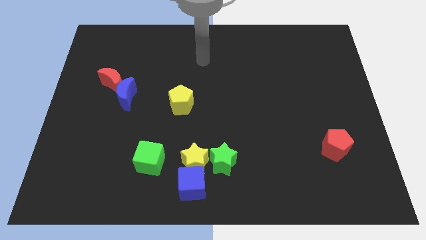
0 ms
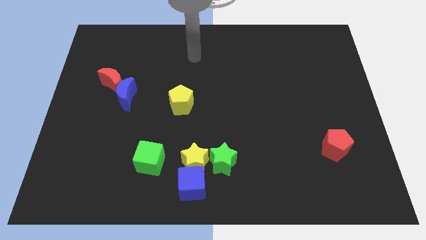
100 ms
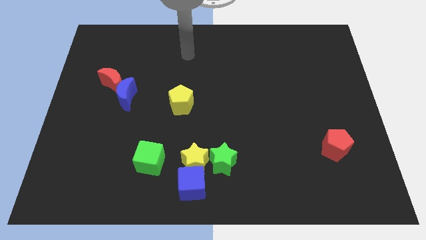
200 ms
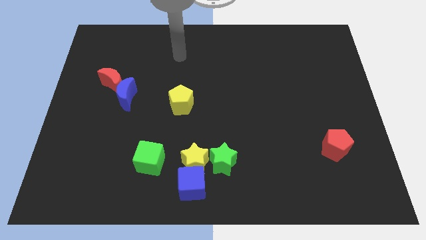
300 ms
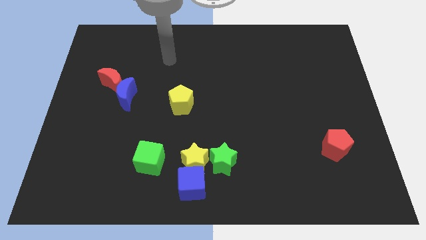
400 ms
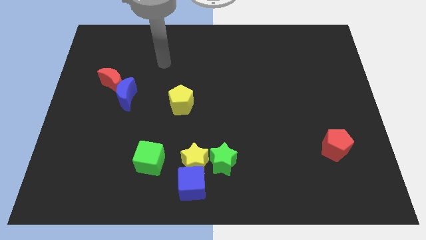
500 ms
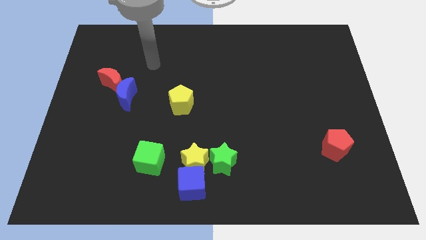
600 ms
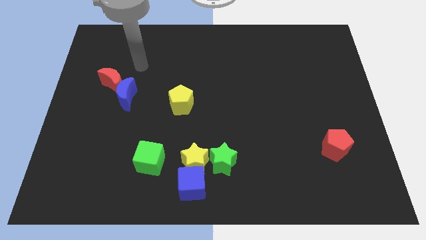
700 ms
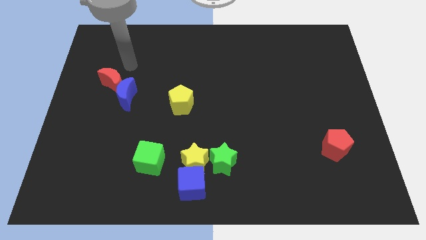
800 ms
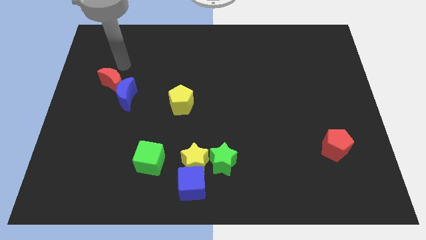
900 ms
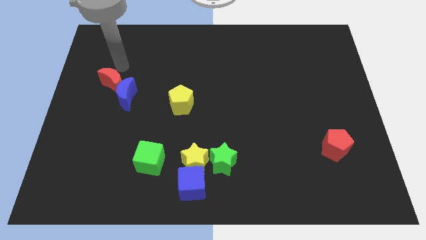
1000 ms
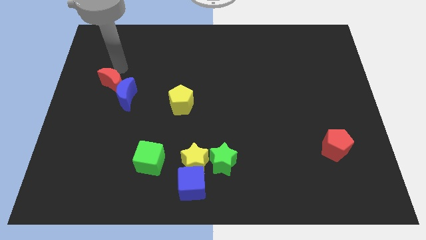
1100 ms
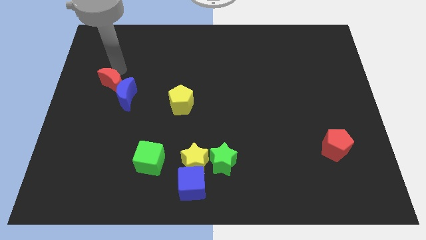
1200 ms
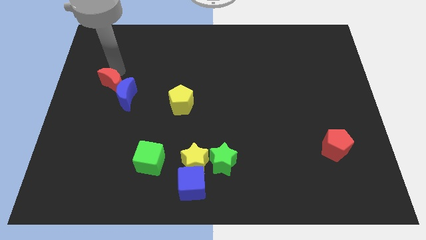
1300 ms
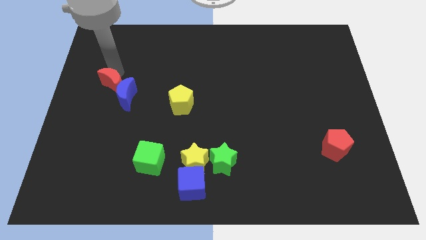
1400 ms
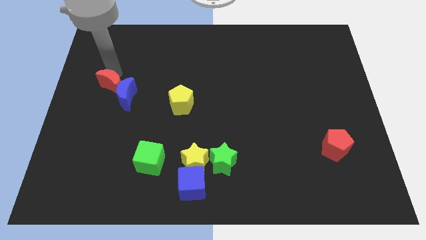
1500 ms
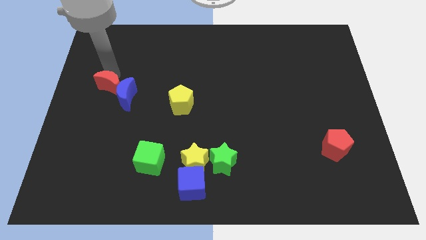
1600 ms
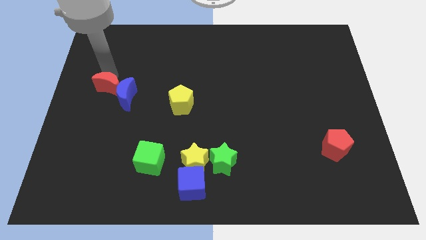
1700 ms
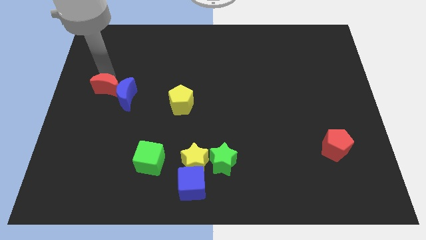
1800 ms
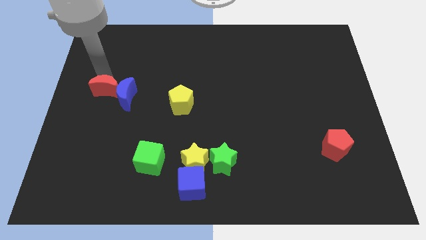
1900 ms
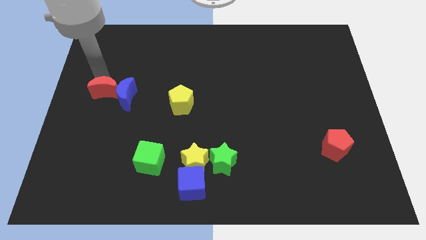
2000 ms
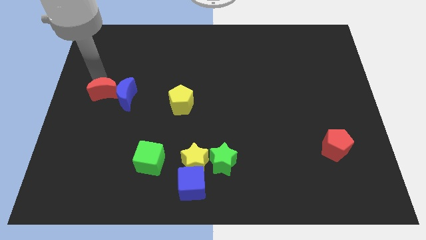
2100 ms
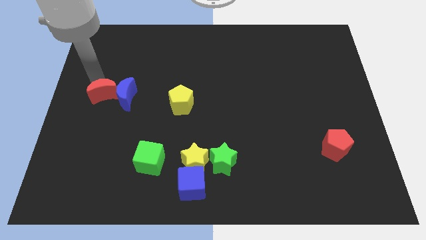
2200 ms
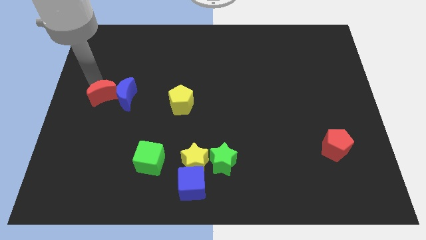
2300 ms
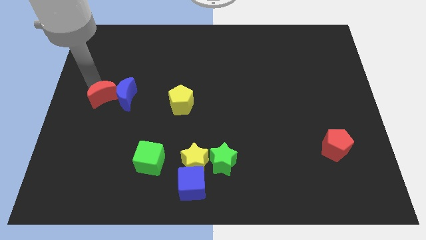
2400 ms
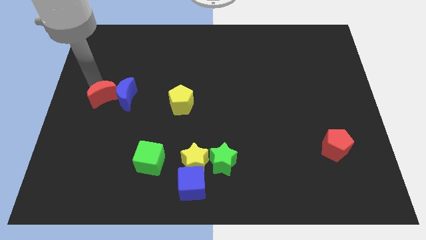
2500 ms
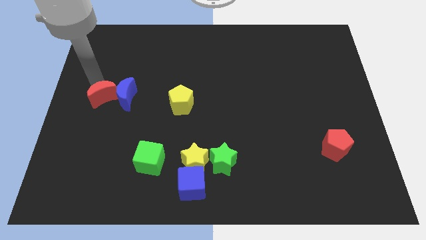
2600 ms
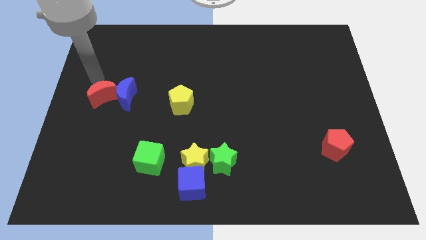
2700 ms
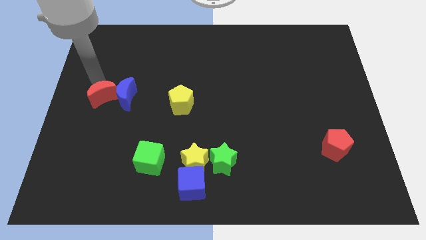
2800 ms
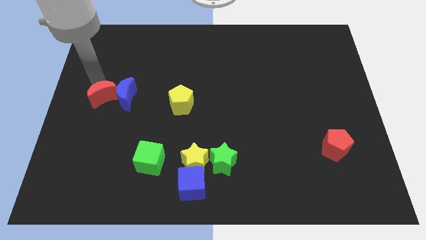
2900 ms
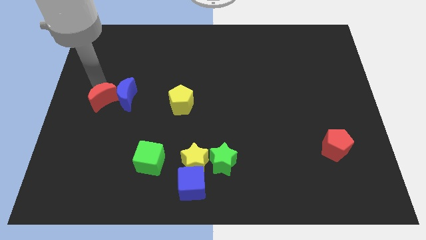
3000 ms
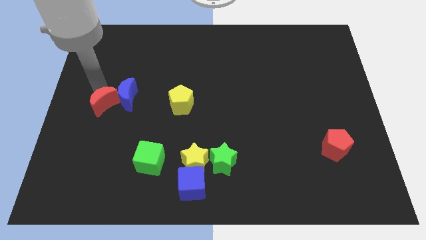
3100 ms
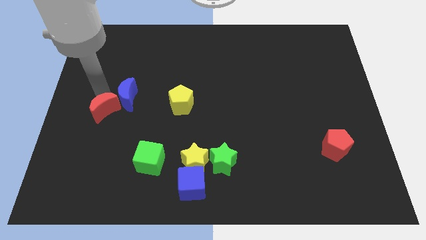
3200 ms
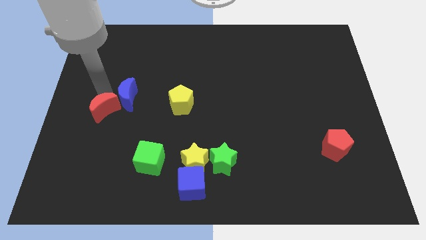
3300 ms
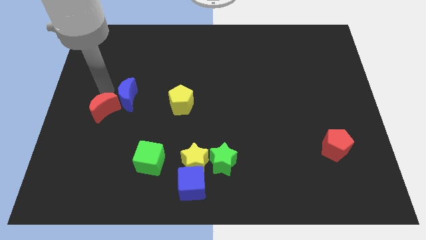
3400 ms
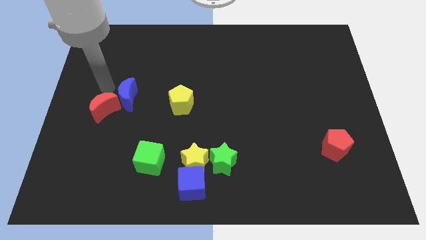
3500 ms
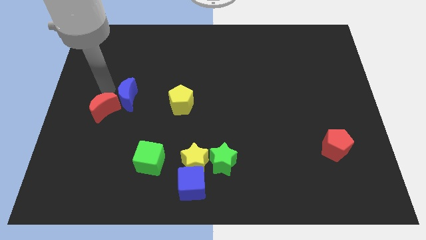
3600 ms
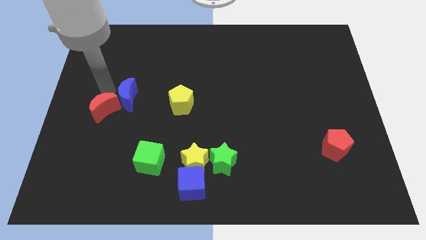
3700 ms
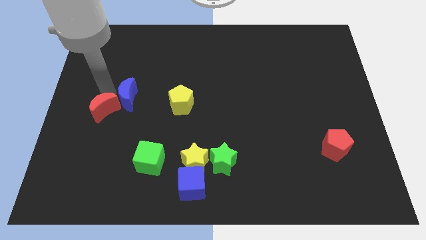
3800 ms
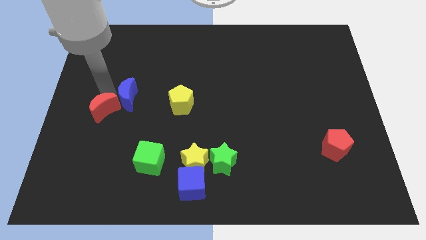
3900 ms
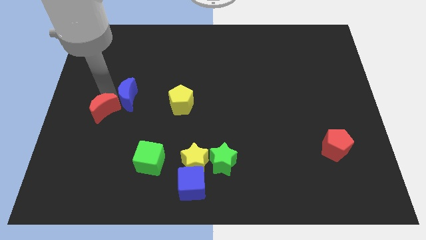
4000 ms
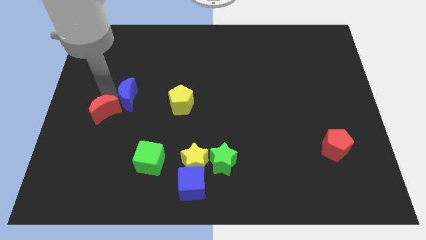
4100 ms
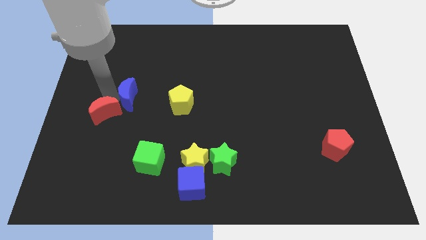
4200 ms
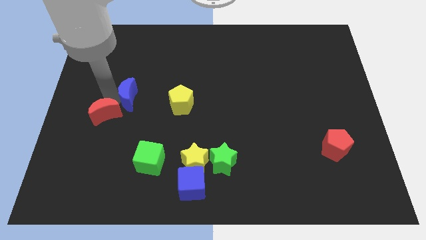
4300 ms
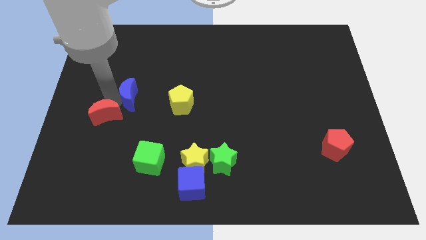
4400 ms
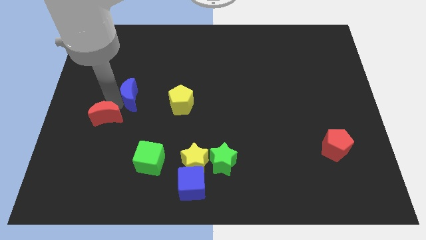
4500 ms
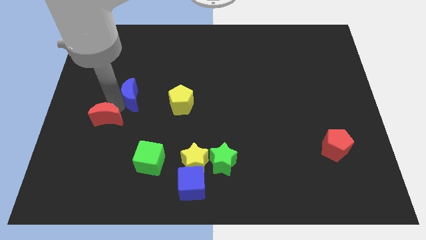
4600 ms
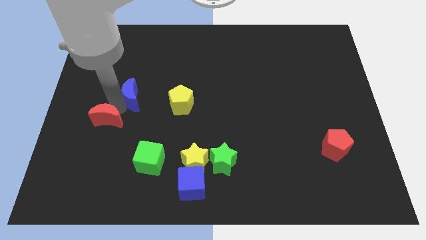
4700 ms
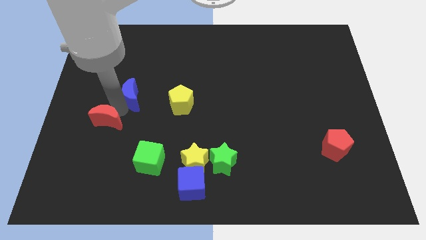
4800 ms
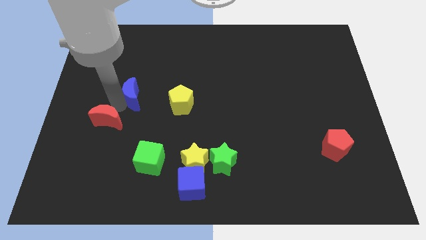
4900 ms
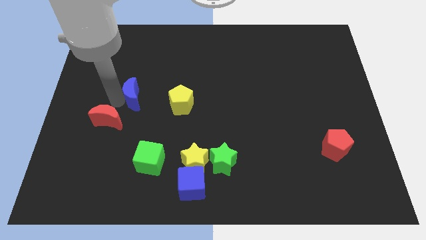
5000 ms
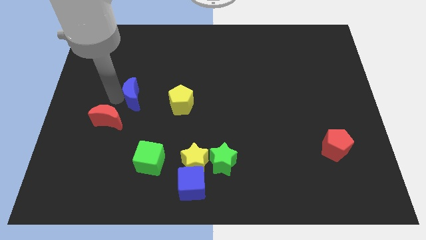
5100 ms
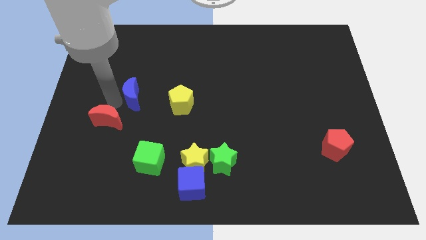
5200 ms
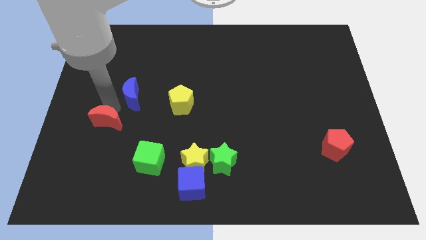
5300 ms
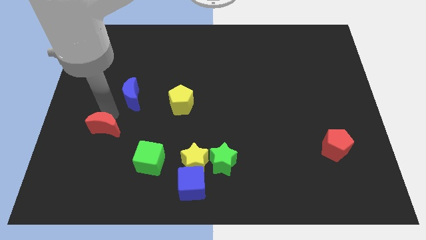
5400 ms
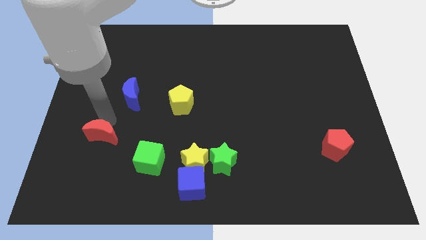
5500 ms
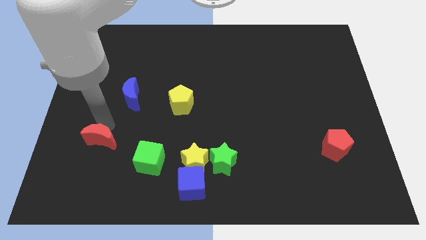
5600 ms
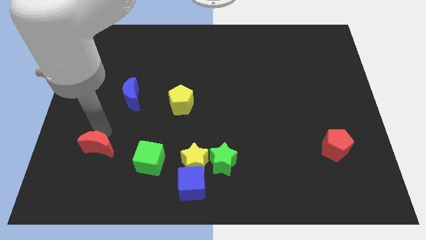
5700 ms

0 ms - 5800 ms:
slide the red moon just left of the green cube
